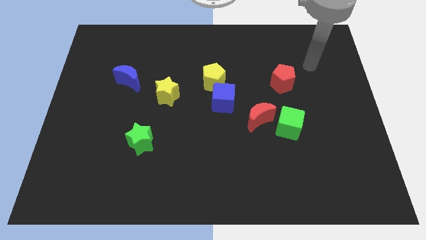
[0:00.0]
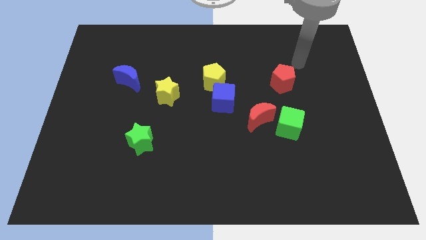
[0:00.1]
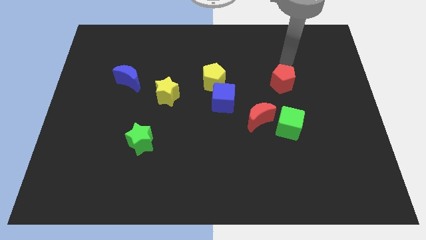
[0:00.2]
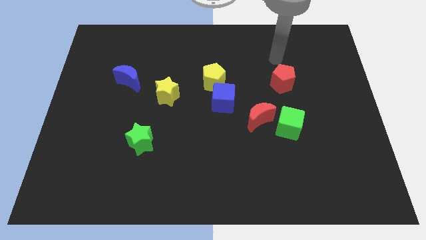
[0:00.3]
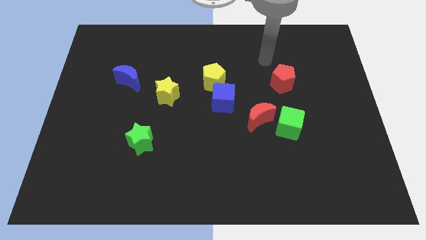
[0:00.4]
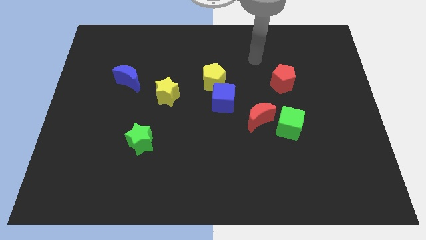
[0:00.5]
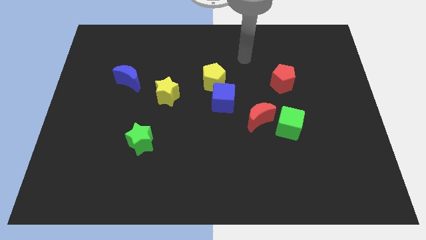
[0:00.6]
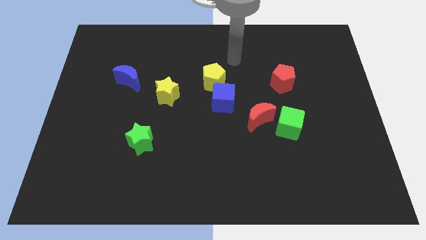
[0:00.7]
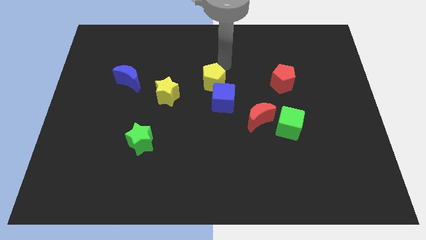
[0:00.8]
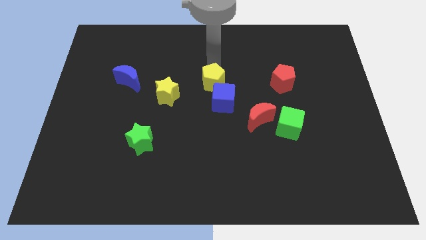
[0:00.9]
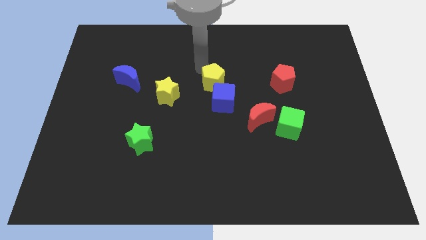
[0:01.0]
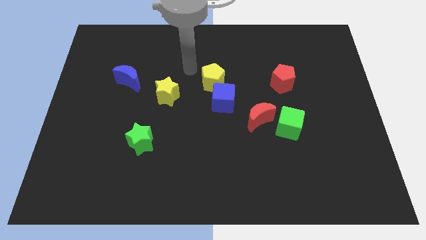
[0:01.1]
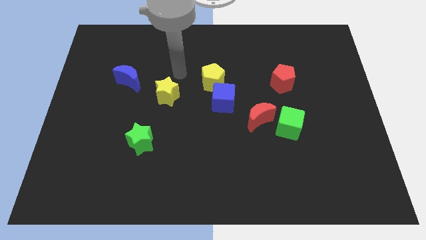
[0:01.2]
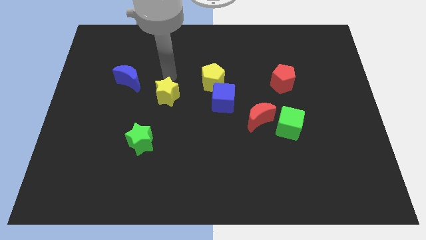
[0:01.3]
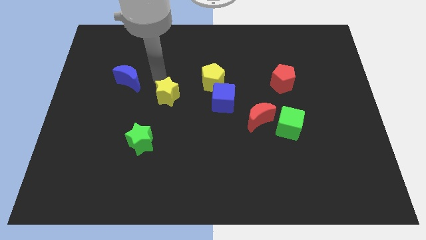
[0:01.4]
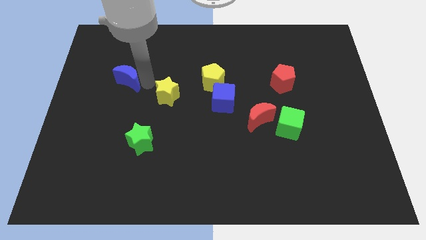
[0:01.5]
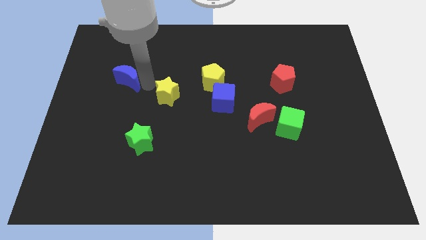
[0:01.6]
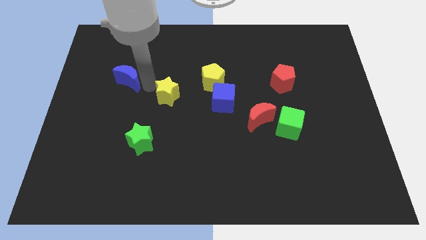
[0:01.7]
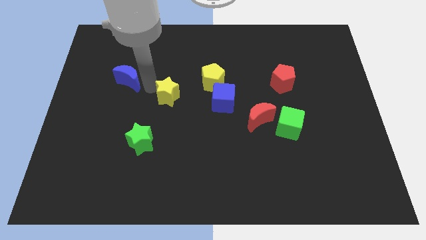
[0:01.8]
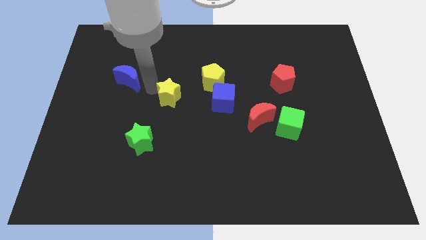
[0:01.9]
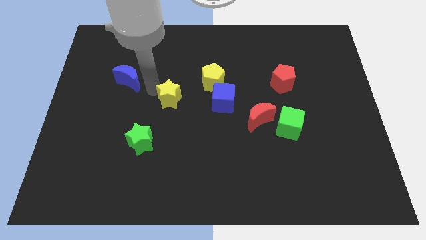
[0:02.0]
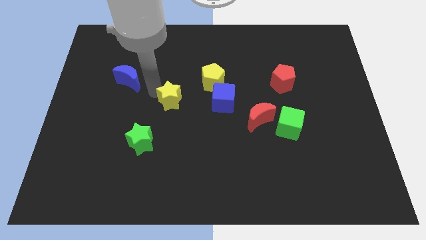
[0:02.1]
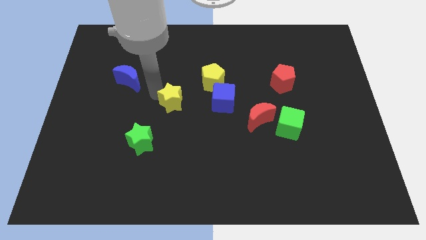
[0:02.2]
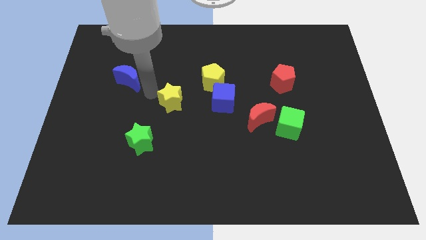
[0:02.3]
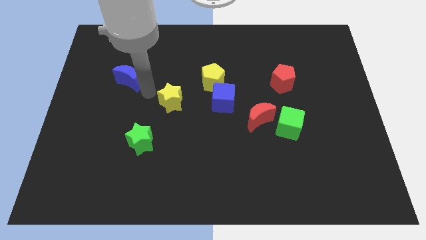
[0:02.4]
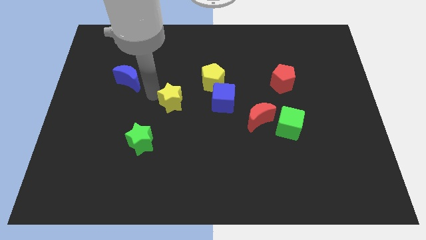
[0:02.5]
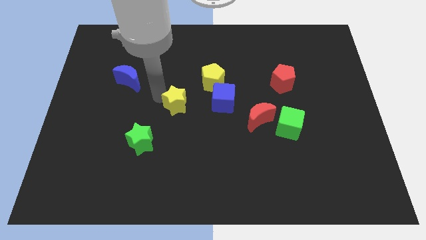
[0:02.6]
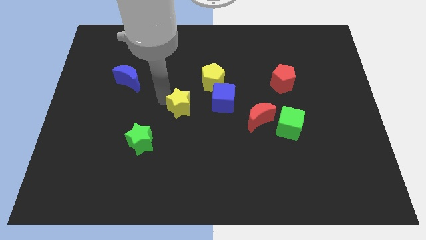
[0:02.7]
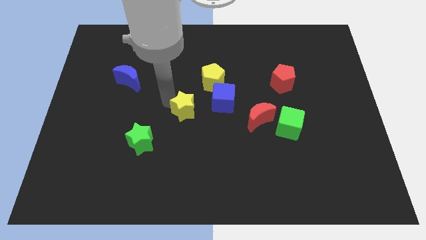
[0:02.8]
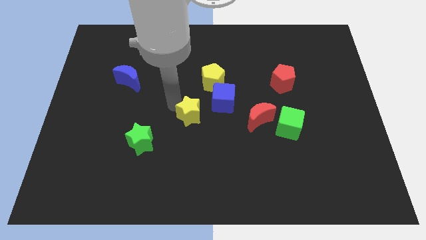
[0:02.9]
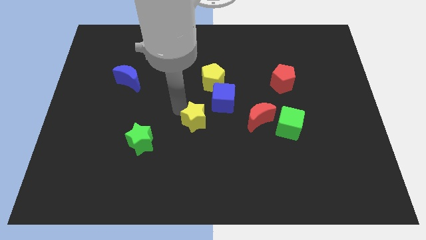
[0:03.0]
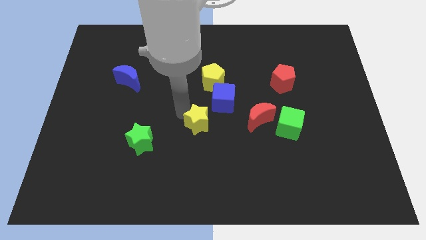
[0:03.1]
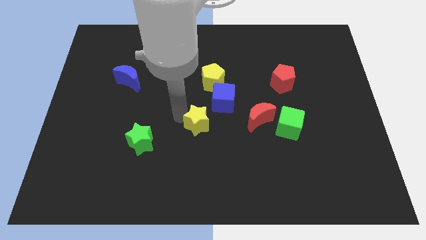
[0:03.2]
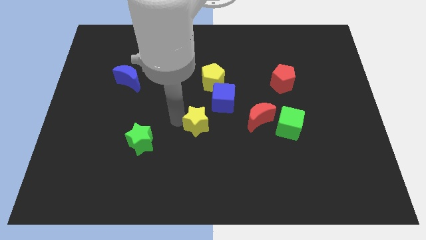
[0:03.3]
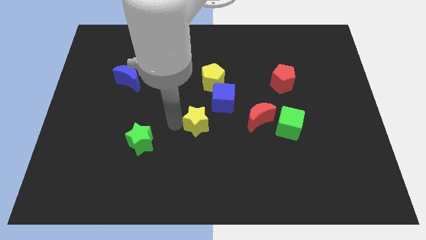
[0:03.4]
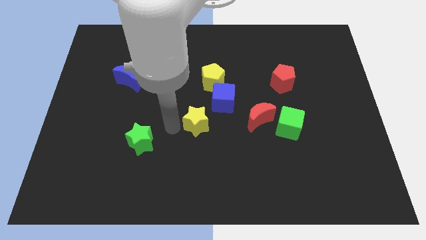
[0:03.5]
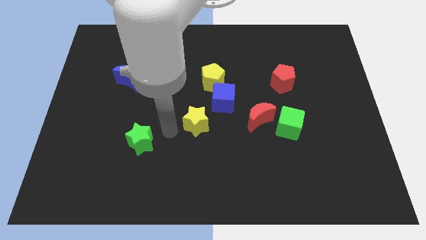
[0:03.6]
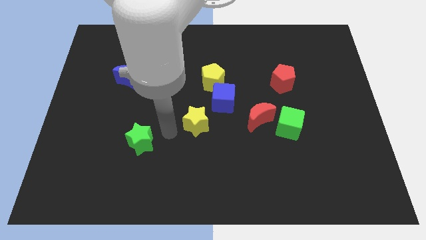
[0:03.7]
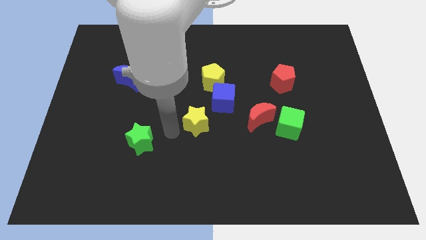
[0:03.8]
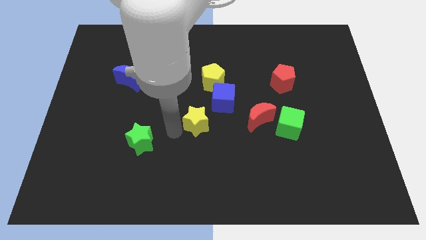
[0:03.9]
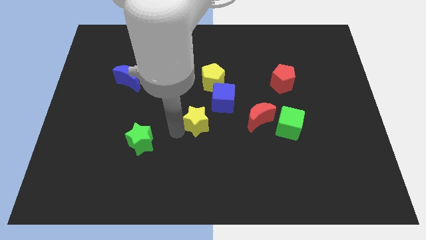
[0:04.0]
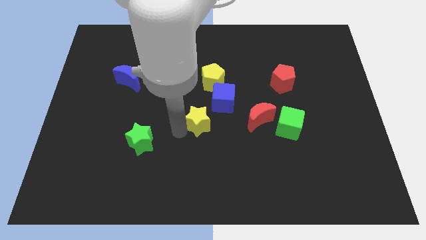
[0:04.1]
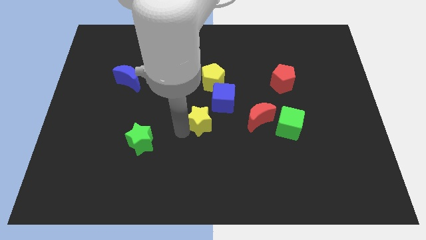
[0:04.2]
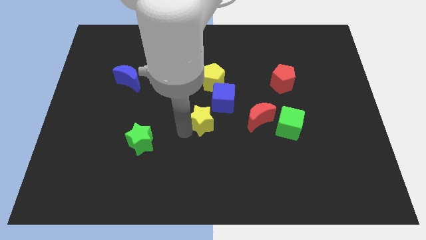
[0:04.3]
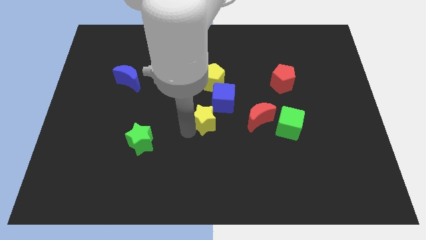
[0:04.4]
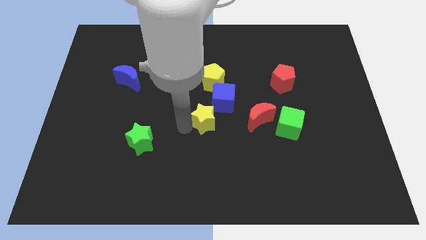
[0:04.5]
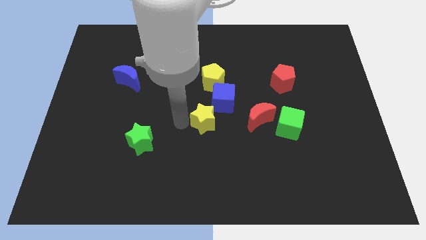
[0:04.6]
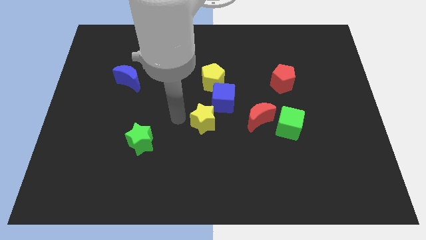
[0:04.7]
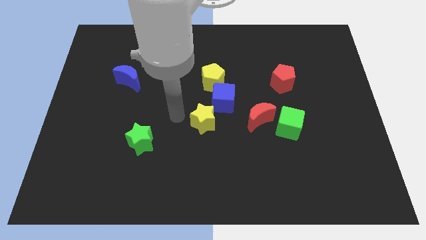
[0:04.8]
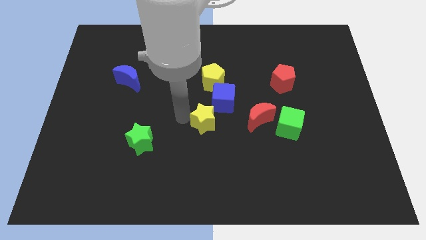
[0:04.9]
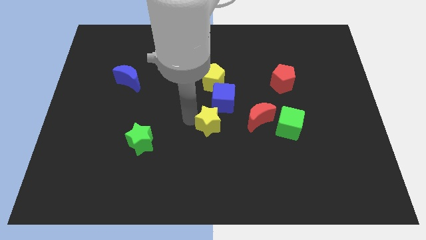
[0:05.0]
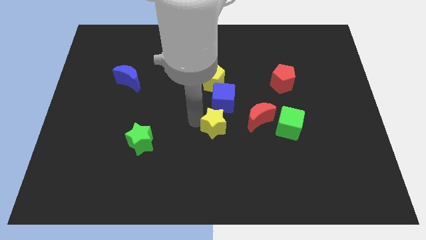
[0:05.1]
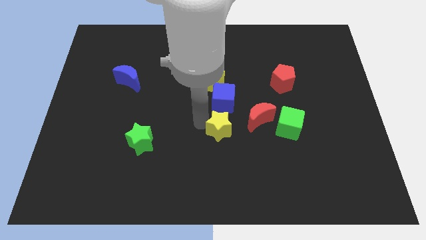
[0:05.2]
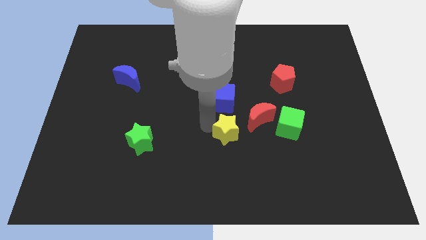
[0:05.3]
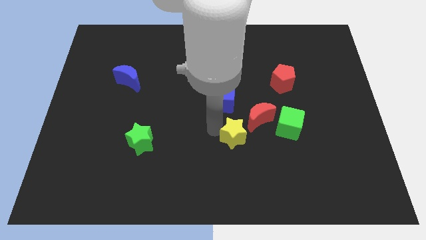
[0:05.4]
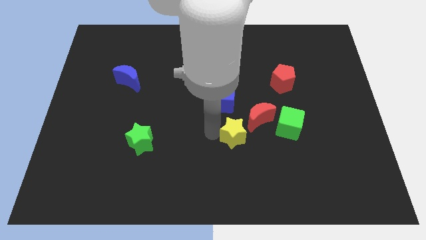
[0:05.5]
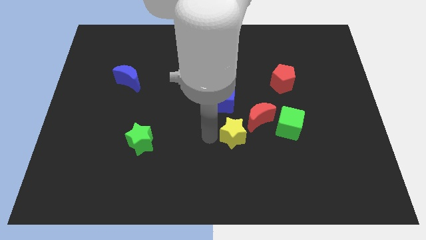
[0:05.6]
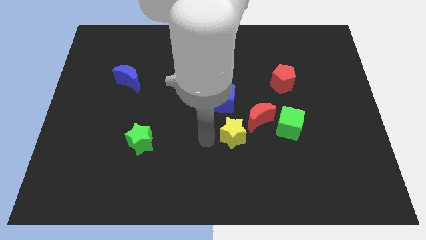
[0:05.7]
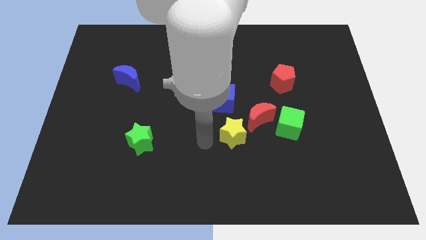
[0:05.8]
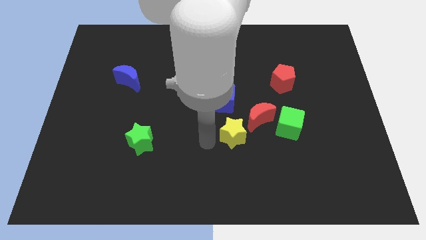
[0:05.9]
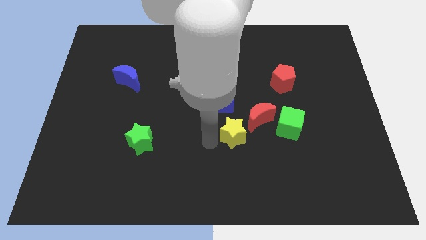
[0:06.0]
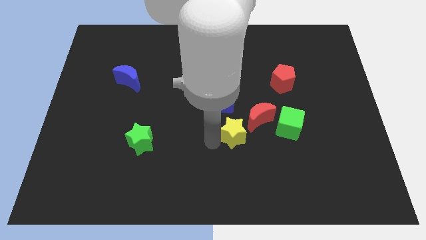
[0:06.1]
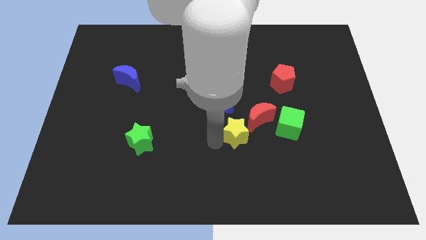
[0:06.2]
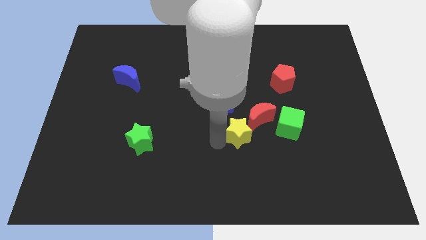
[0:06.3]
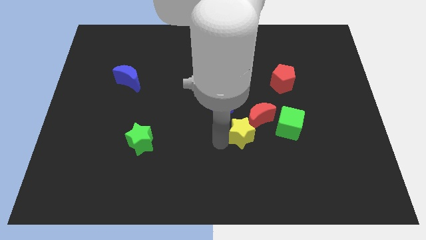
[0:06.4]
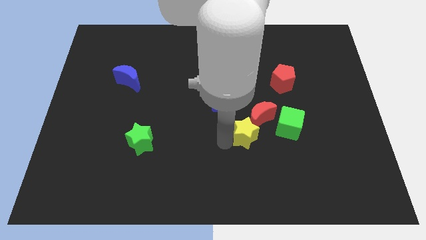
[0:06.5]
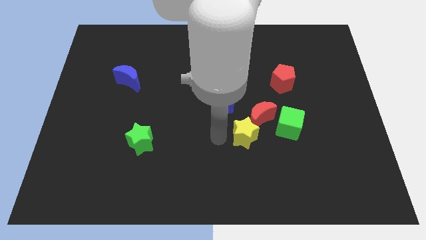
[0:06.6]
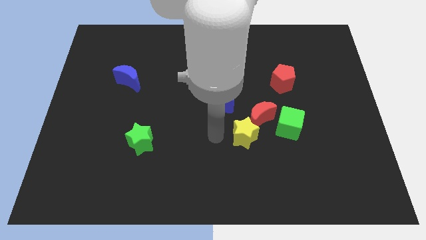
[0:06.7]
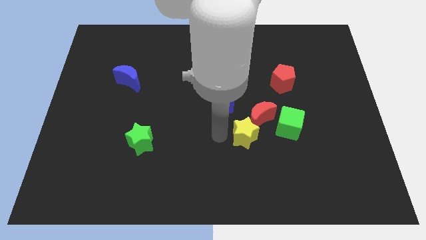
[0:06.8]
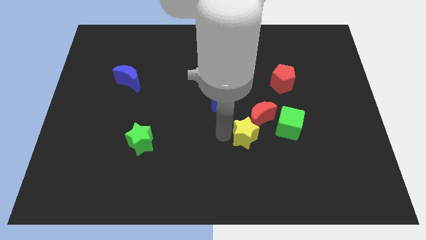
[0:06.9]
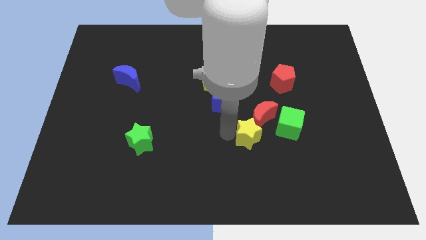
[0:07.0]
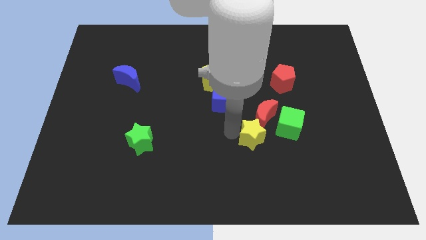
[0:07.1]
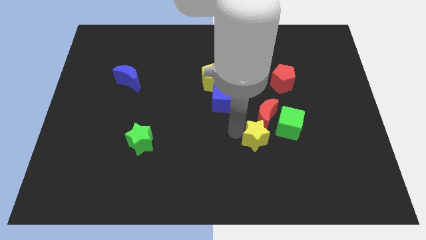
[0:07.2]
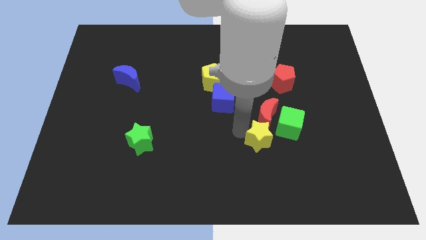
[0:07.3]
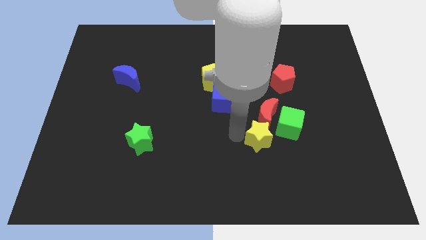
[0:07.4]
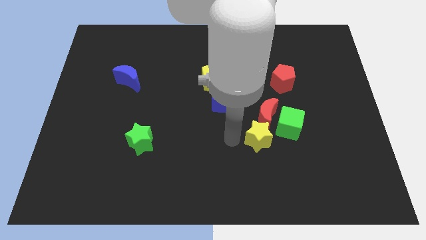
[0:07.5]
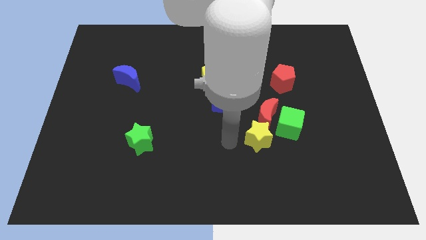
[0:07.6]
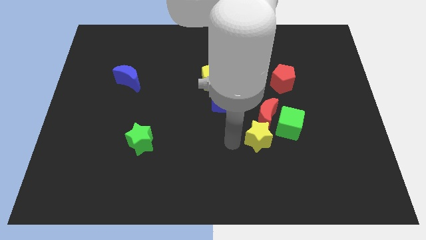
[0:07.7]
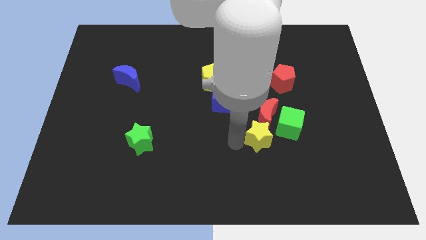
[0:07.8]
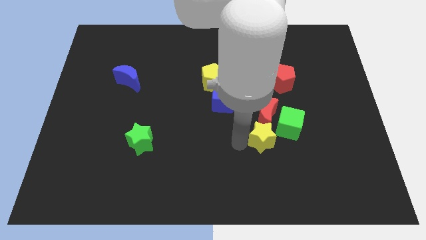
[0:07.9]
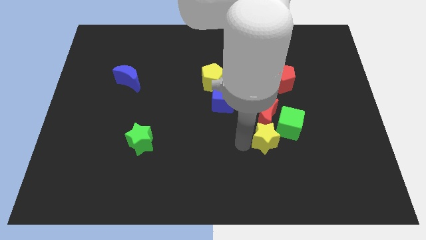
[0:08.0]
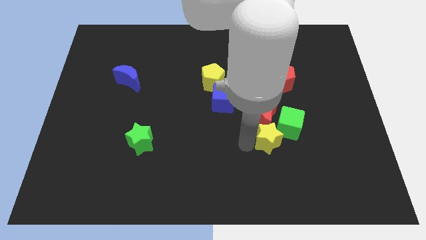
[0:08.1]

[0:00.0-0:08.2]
push the yellow star to the bottom right side of the red moon
